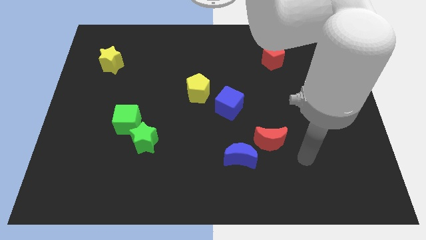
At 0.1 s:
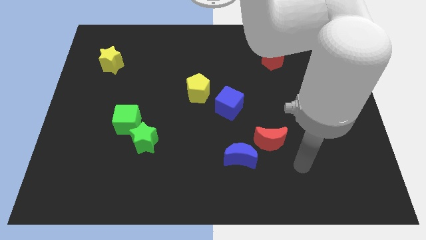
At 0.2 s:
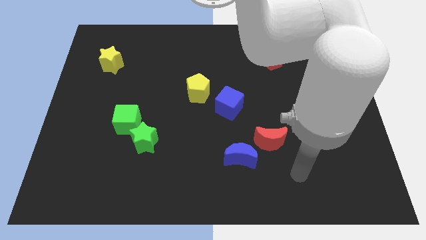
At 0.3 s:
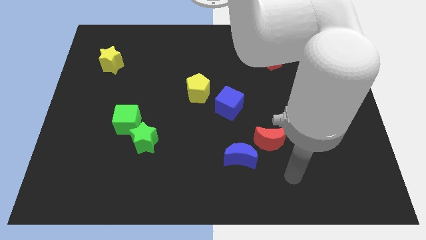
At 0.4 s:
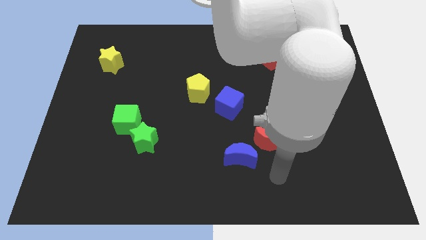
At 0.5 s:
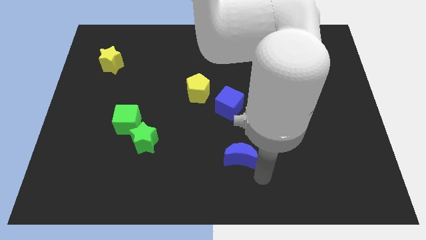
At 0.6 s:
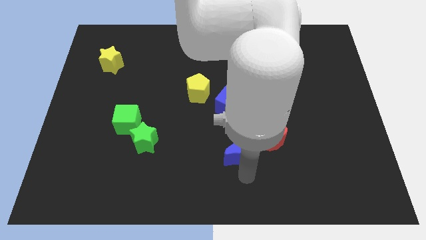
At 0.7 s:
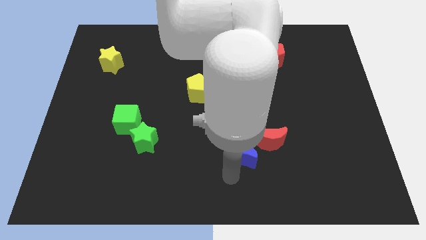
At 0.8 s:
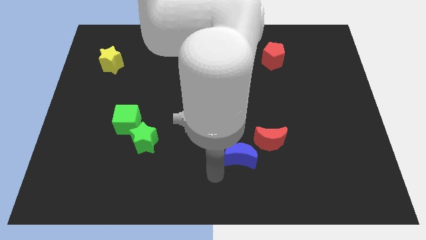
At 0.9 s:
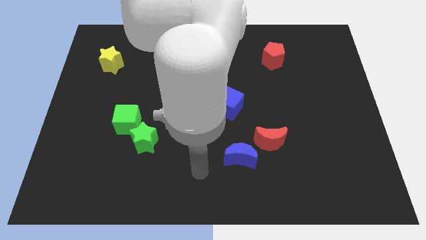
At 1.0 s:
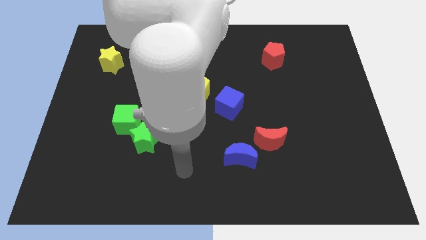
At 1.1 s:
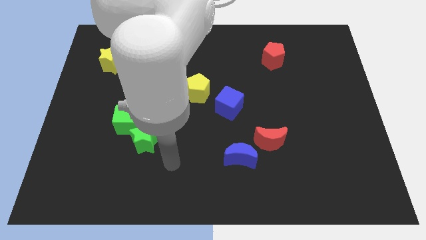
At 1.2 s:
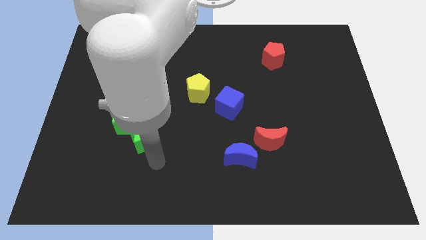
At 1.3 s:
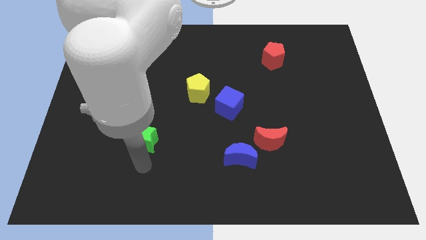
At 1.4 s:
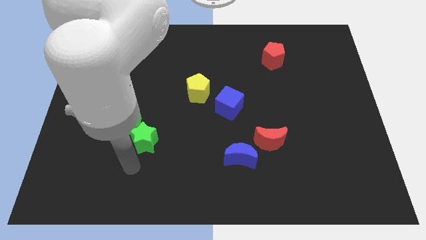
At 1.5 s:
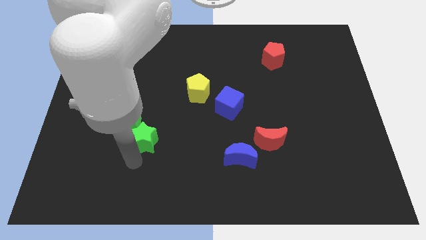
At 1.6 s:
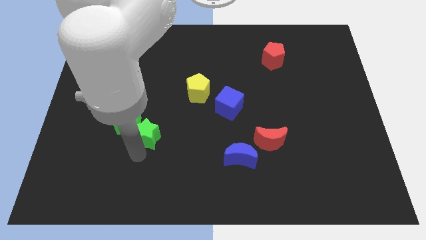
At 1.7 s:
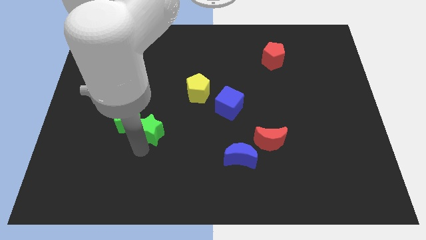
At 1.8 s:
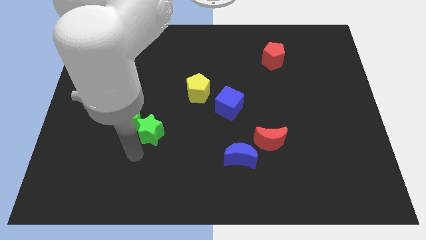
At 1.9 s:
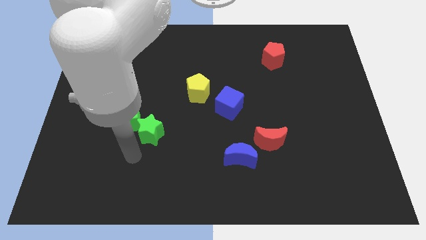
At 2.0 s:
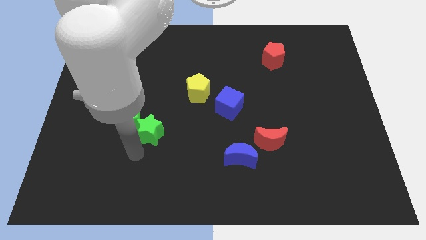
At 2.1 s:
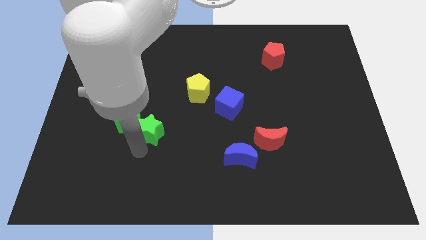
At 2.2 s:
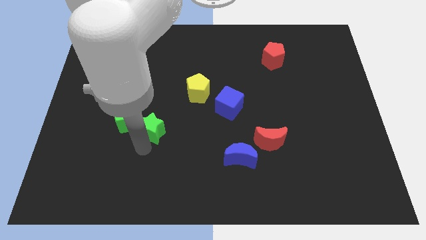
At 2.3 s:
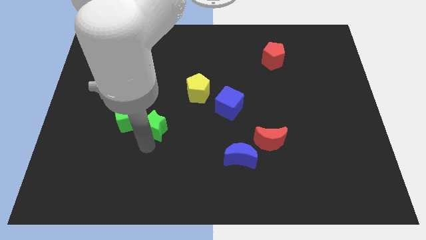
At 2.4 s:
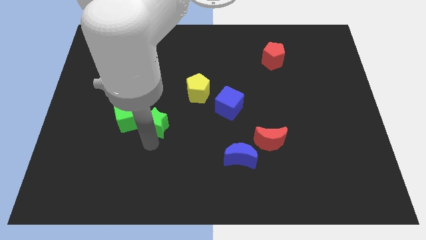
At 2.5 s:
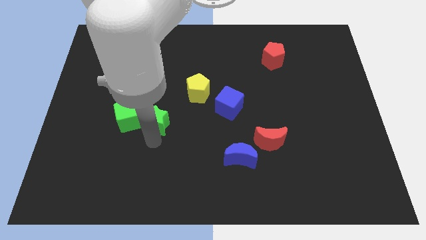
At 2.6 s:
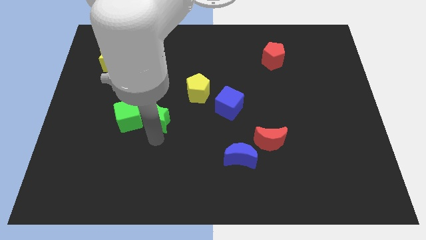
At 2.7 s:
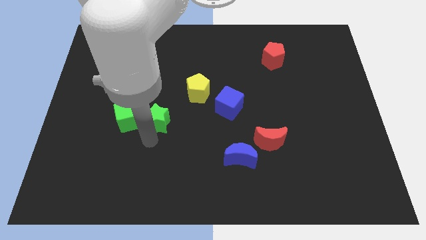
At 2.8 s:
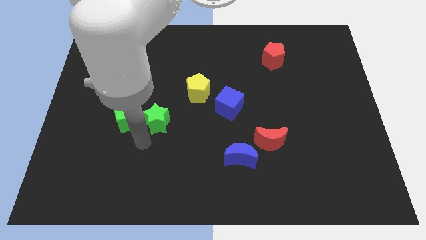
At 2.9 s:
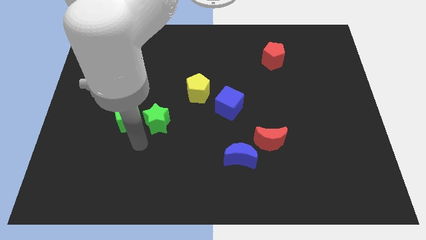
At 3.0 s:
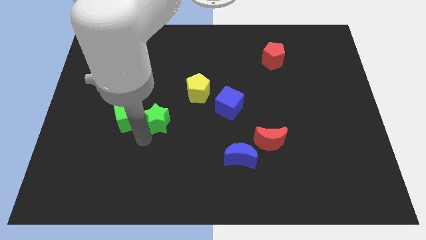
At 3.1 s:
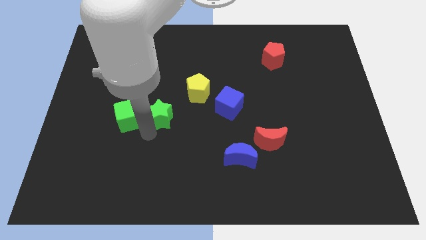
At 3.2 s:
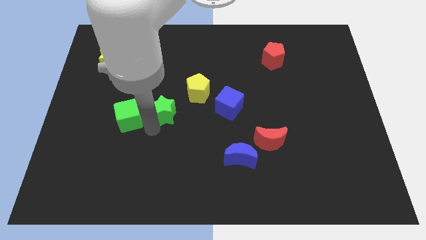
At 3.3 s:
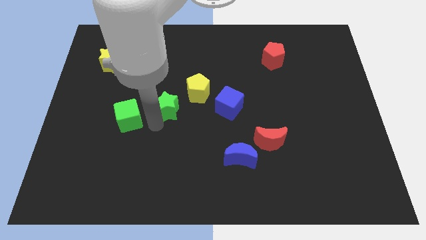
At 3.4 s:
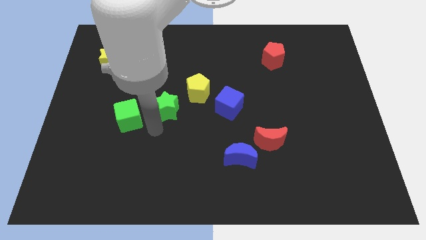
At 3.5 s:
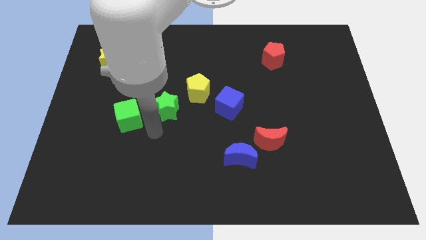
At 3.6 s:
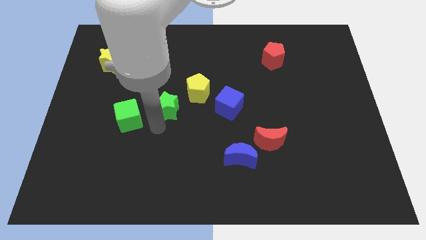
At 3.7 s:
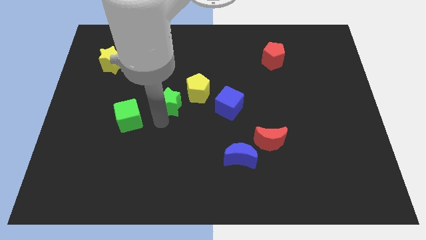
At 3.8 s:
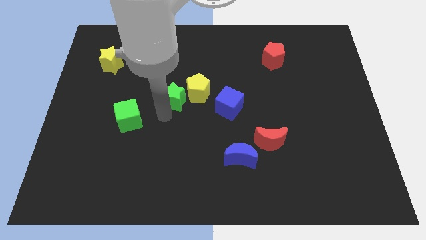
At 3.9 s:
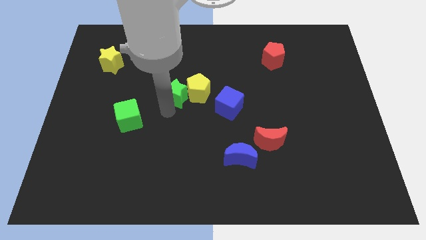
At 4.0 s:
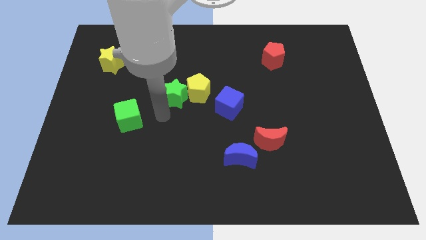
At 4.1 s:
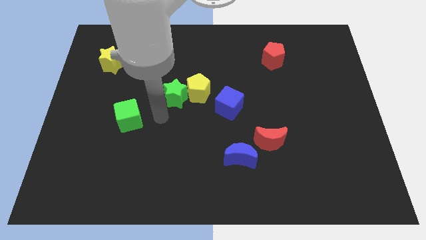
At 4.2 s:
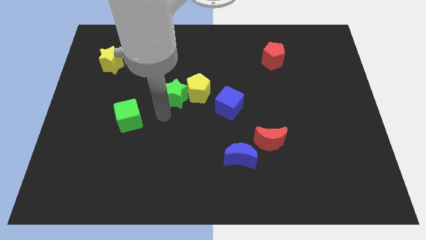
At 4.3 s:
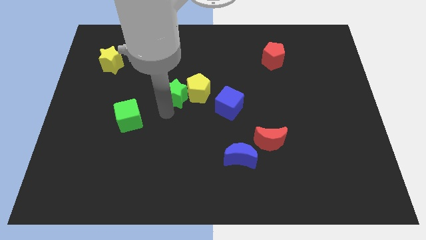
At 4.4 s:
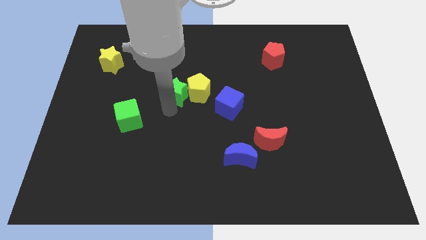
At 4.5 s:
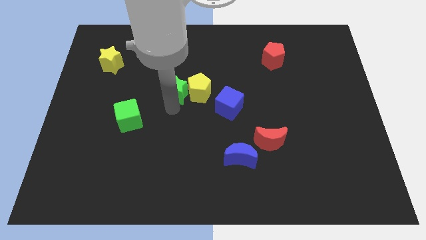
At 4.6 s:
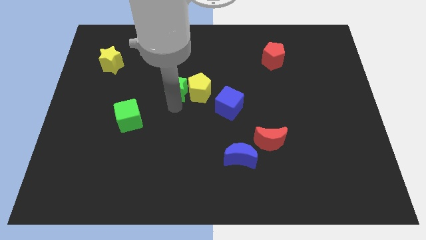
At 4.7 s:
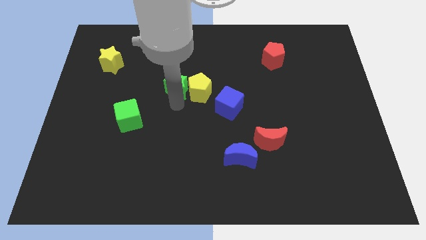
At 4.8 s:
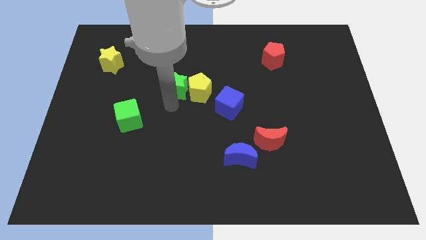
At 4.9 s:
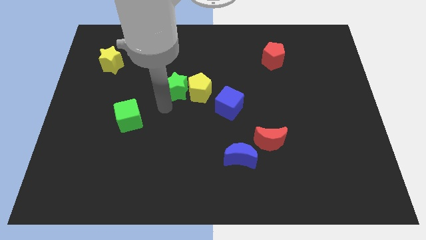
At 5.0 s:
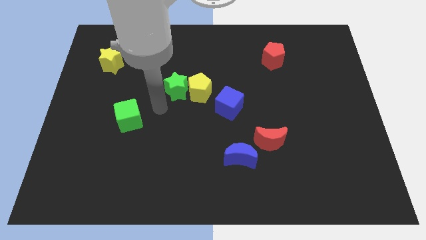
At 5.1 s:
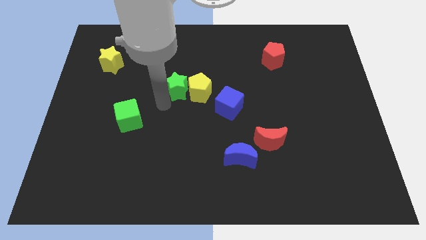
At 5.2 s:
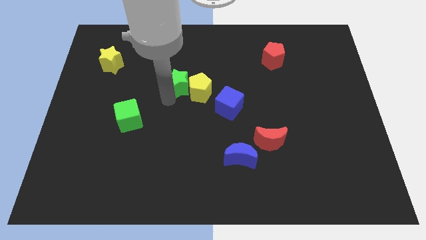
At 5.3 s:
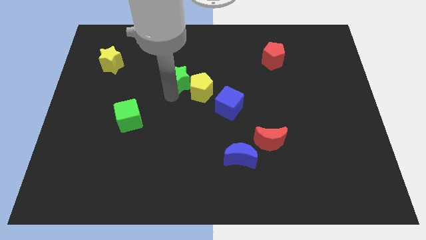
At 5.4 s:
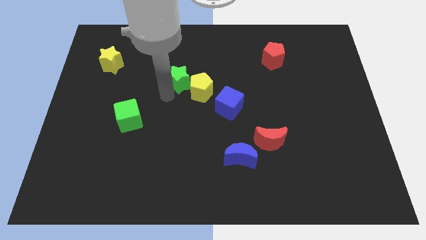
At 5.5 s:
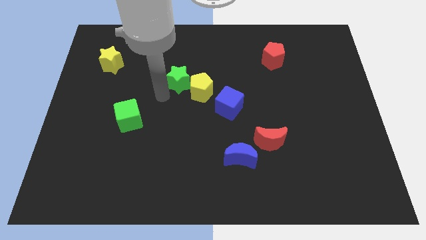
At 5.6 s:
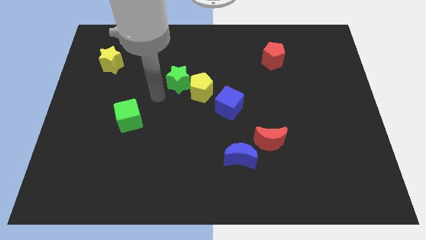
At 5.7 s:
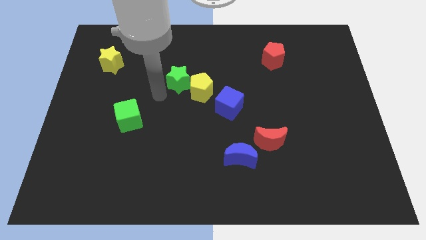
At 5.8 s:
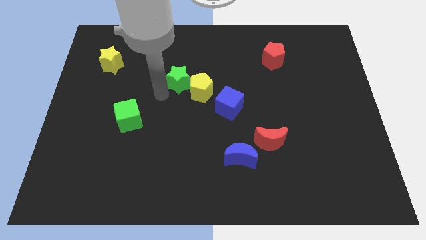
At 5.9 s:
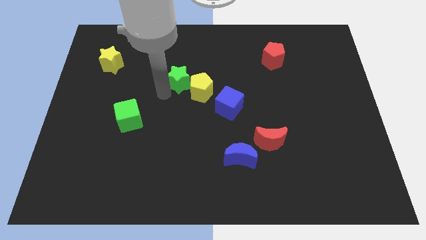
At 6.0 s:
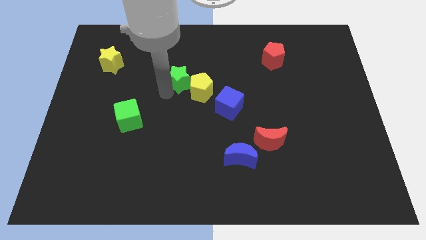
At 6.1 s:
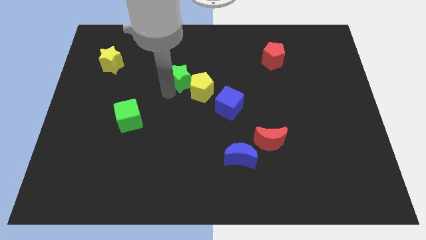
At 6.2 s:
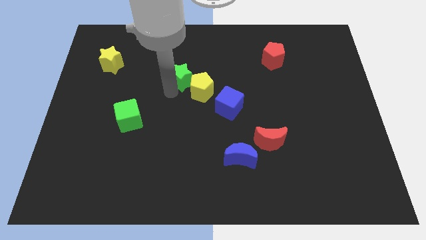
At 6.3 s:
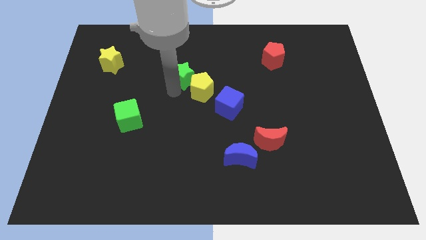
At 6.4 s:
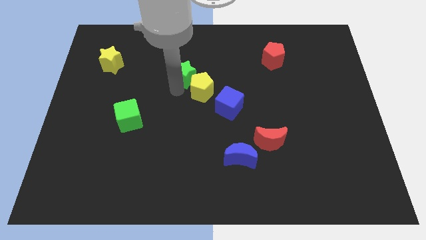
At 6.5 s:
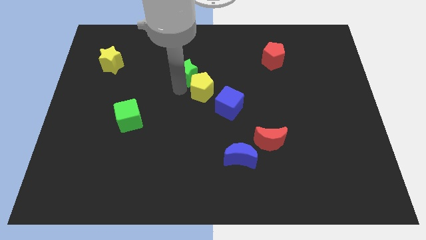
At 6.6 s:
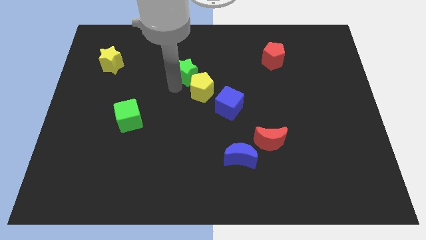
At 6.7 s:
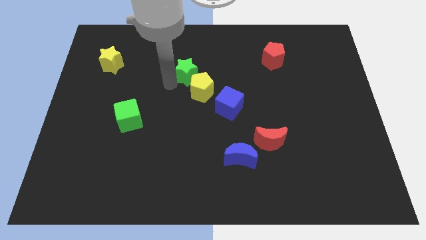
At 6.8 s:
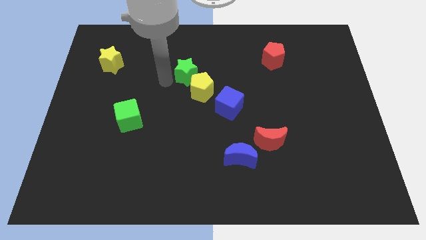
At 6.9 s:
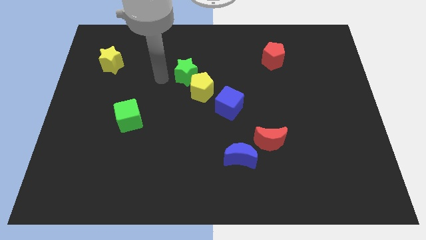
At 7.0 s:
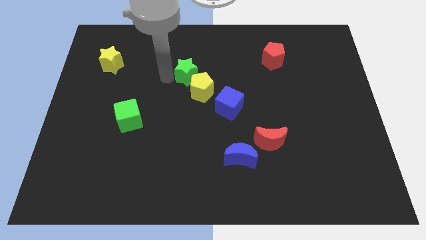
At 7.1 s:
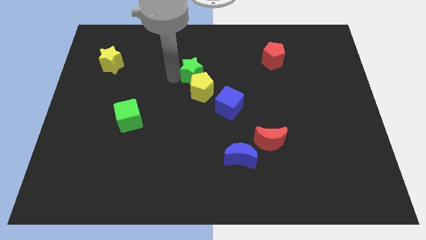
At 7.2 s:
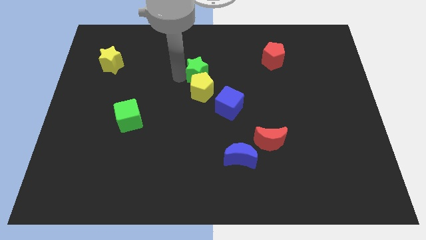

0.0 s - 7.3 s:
slide the green star diagonally upwards and right

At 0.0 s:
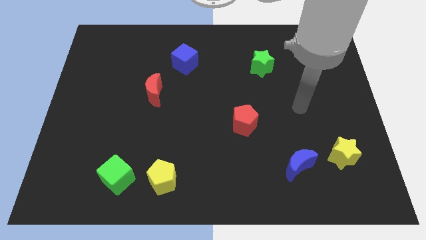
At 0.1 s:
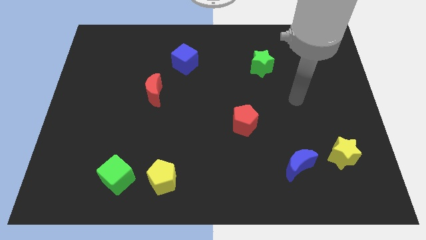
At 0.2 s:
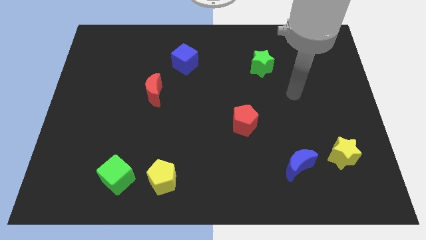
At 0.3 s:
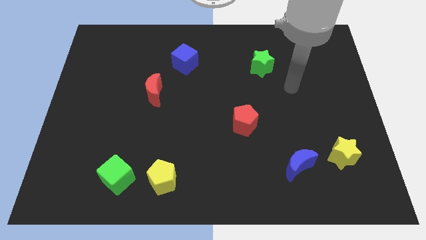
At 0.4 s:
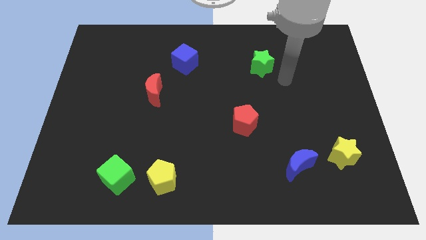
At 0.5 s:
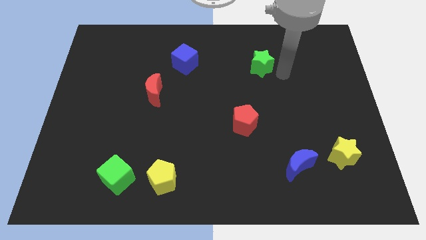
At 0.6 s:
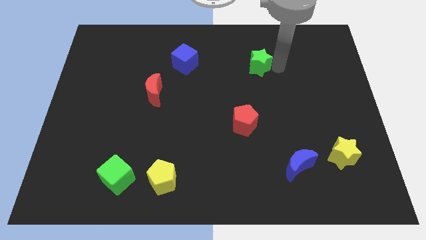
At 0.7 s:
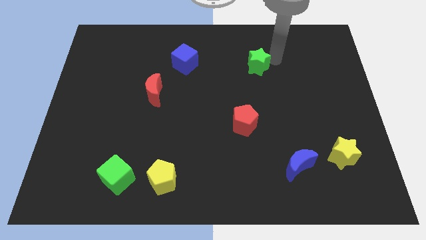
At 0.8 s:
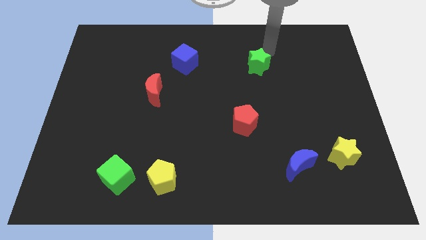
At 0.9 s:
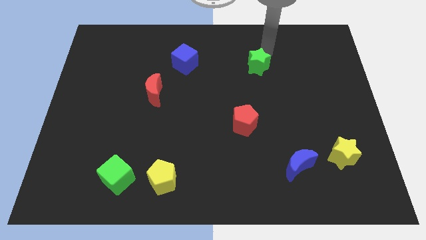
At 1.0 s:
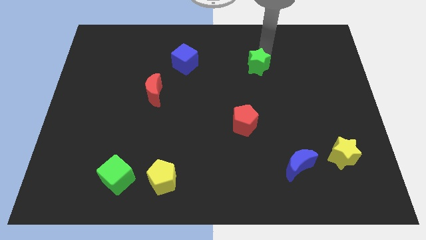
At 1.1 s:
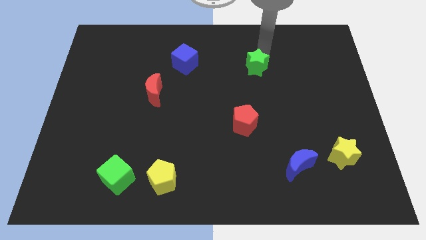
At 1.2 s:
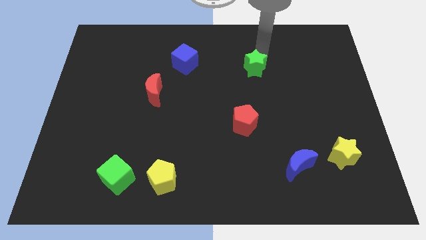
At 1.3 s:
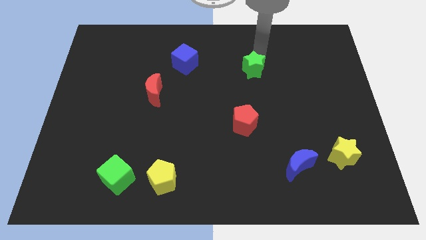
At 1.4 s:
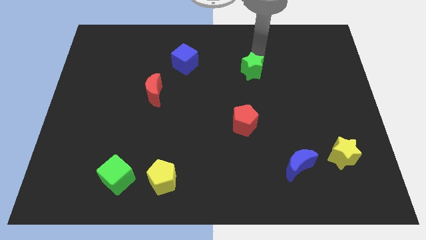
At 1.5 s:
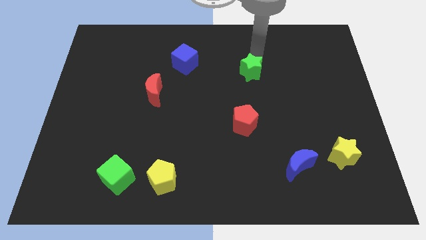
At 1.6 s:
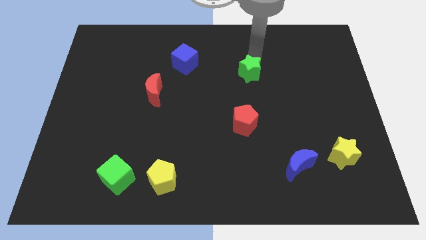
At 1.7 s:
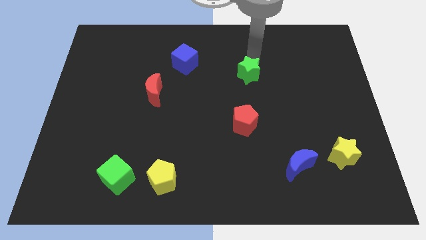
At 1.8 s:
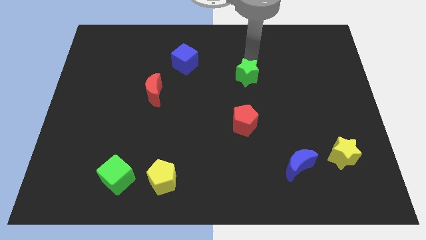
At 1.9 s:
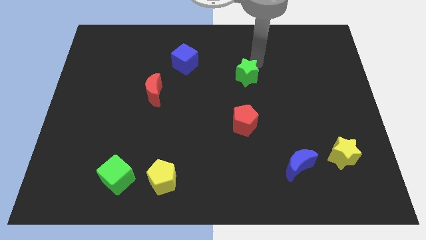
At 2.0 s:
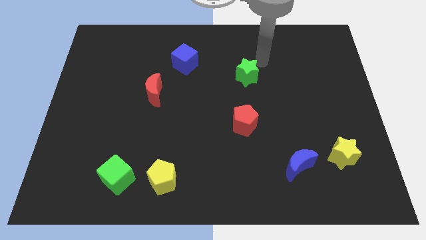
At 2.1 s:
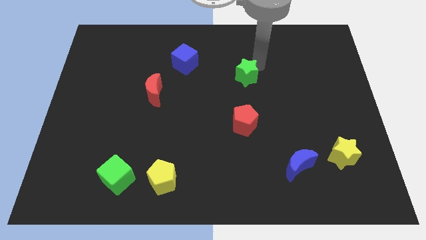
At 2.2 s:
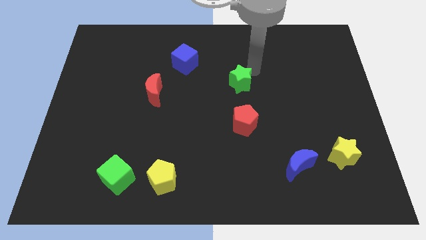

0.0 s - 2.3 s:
move the green star down and left a bit
